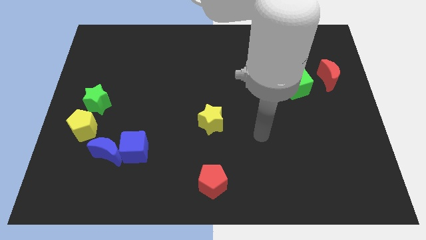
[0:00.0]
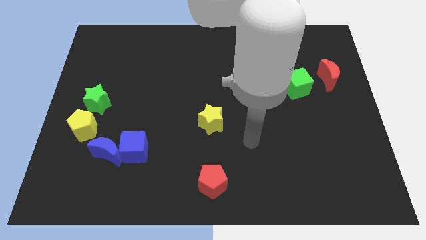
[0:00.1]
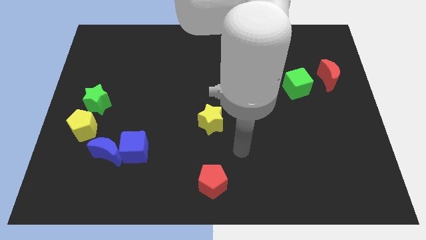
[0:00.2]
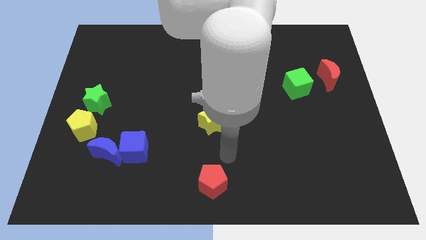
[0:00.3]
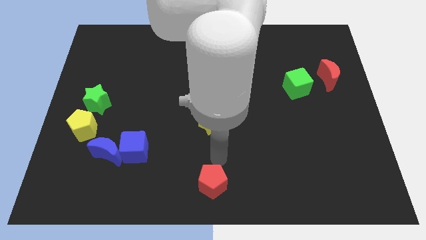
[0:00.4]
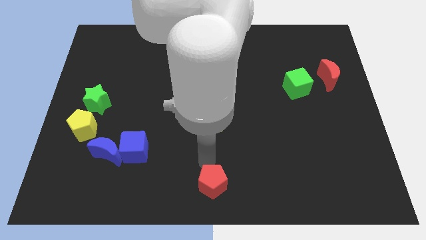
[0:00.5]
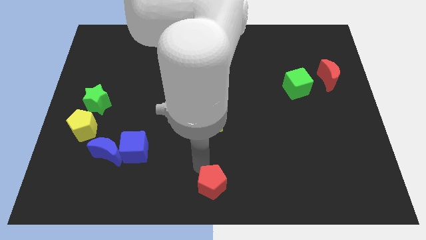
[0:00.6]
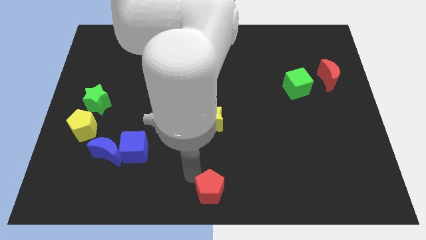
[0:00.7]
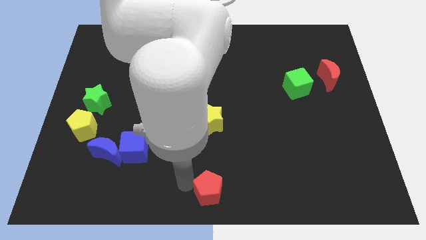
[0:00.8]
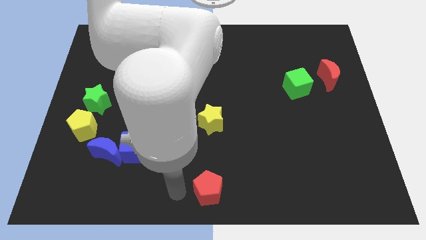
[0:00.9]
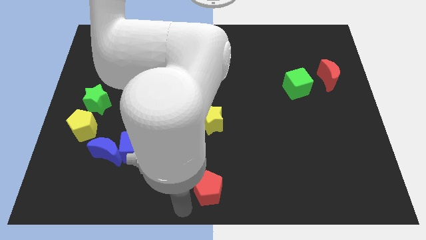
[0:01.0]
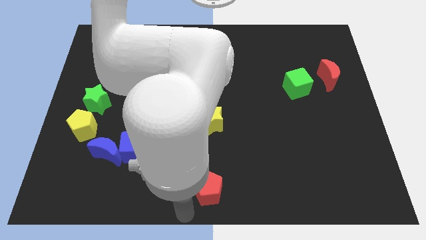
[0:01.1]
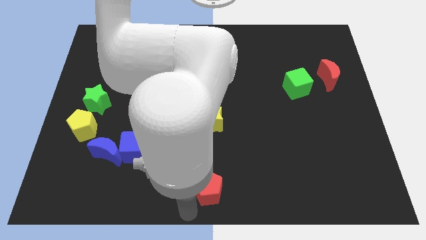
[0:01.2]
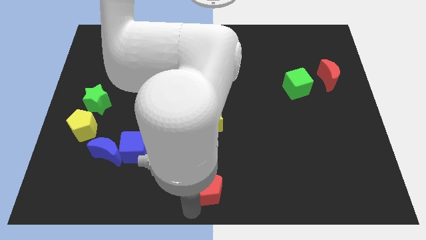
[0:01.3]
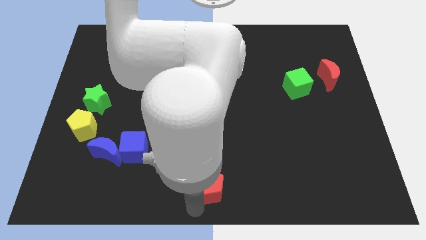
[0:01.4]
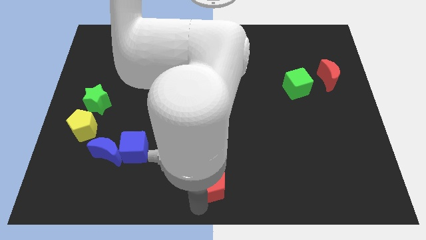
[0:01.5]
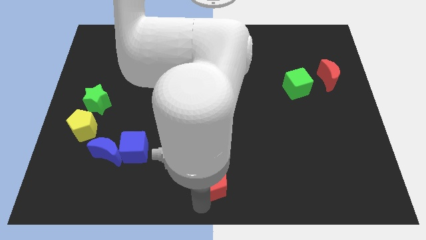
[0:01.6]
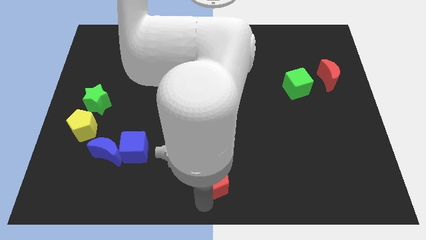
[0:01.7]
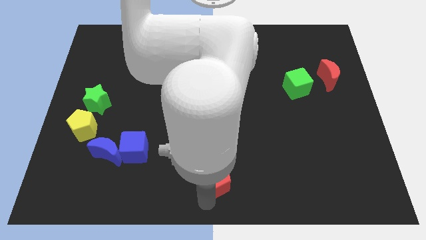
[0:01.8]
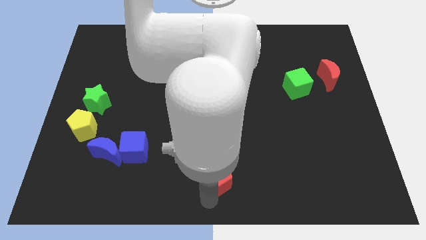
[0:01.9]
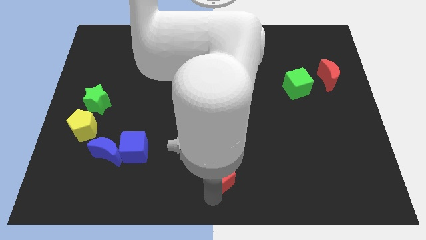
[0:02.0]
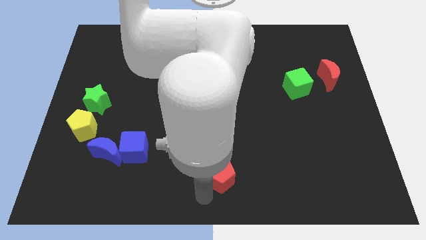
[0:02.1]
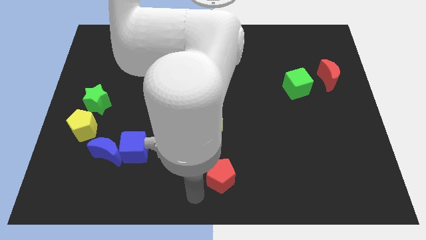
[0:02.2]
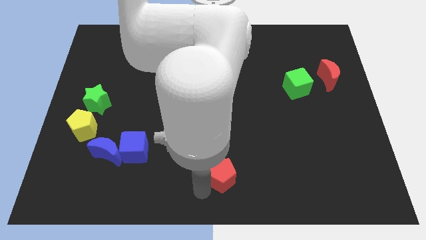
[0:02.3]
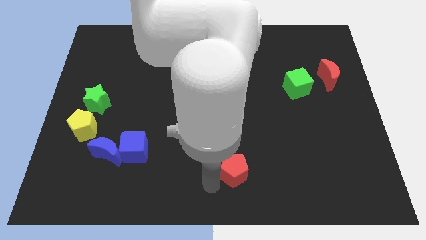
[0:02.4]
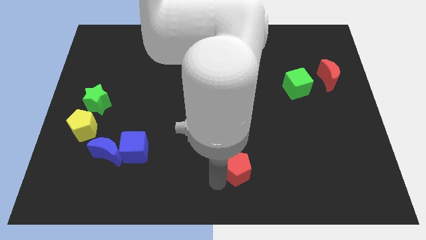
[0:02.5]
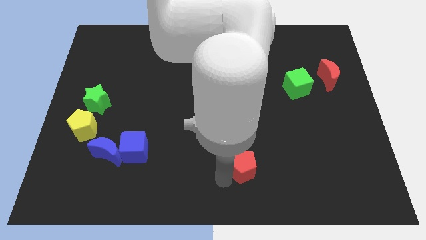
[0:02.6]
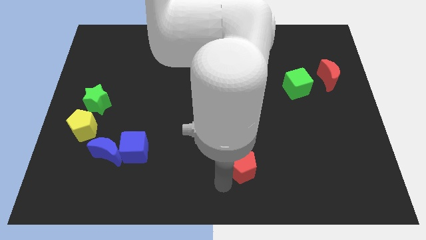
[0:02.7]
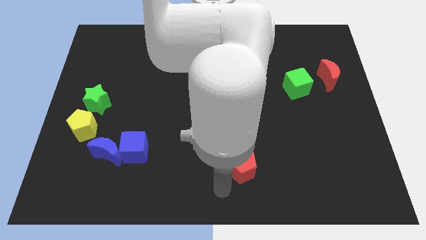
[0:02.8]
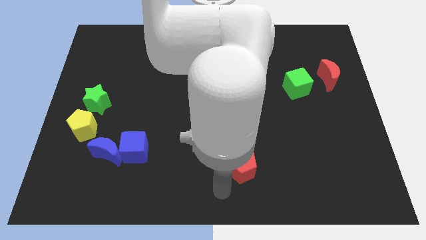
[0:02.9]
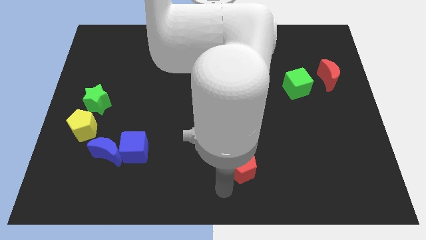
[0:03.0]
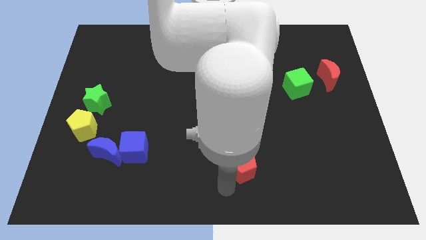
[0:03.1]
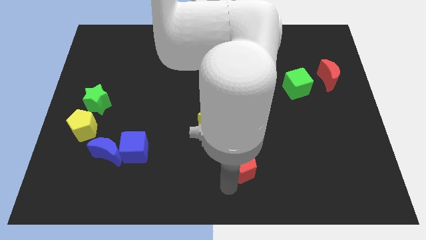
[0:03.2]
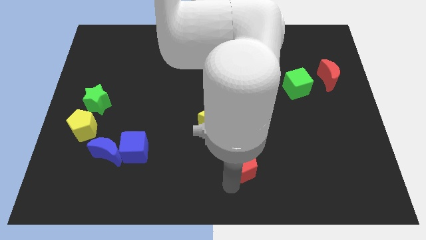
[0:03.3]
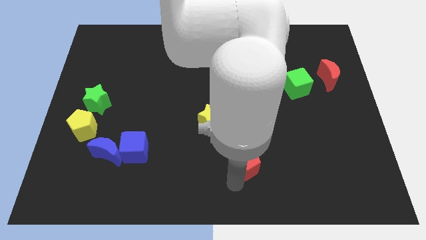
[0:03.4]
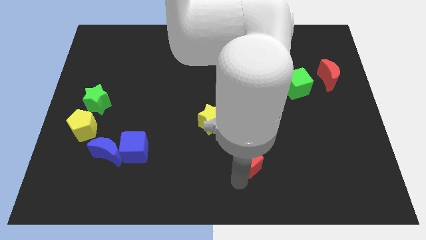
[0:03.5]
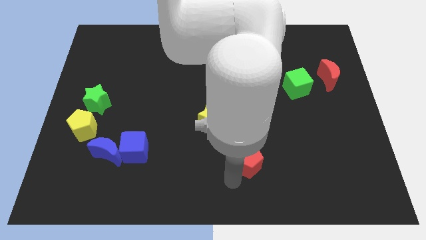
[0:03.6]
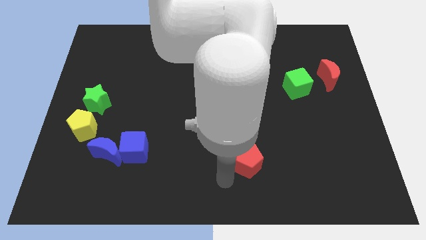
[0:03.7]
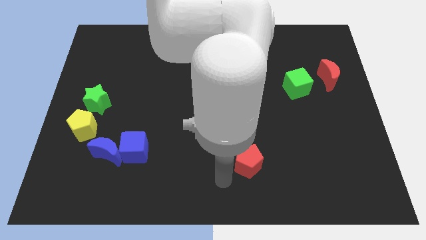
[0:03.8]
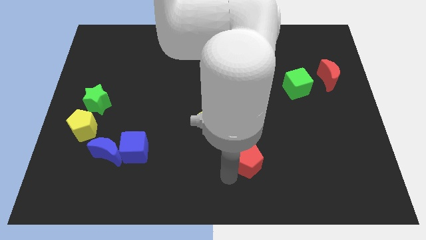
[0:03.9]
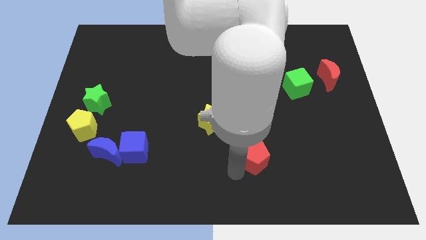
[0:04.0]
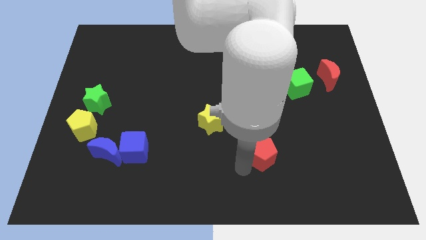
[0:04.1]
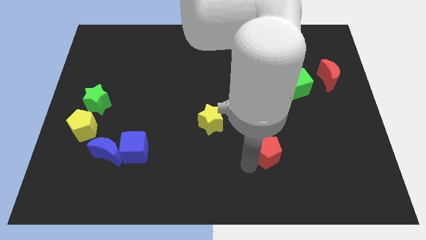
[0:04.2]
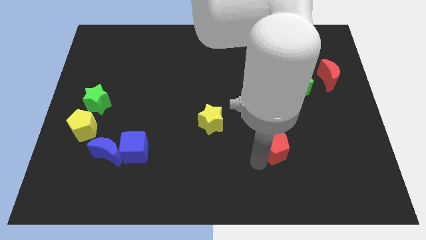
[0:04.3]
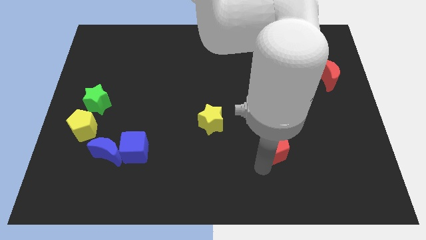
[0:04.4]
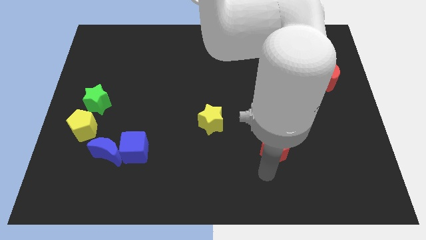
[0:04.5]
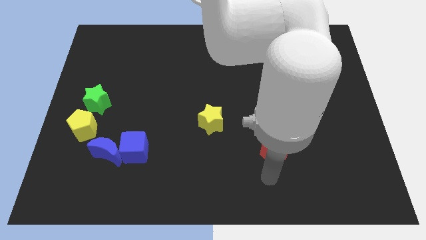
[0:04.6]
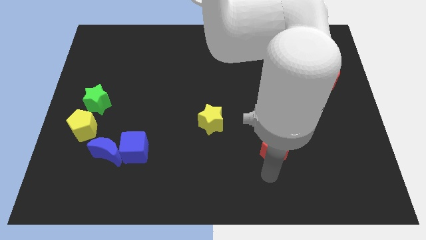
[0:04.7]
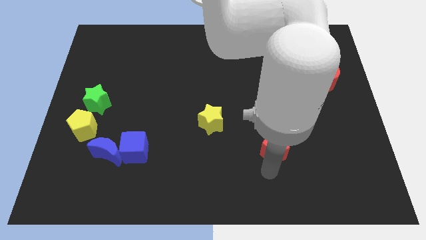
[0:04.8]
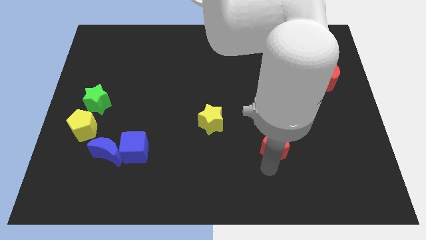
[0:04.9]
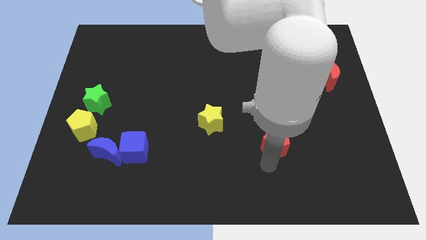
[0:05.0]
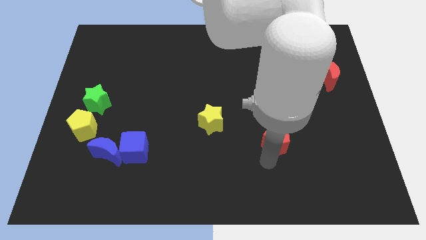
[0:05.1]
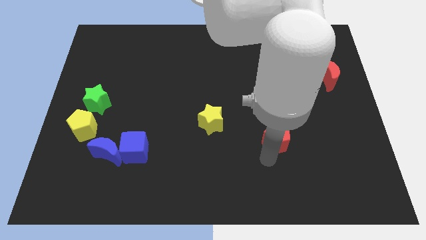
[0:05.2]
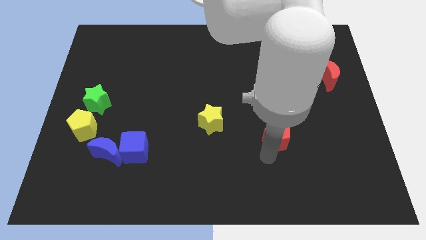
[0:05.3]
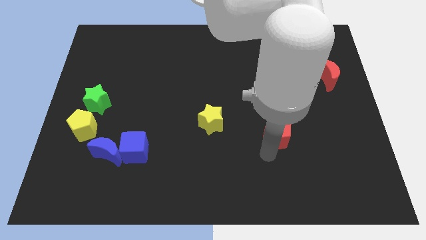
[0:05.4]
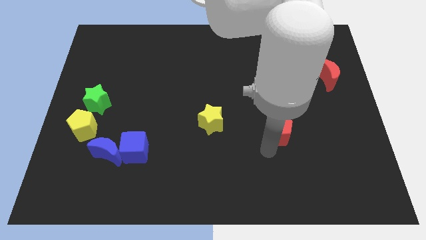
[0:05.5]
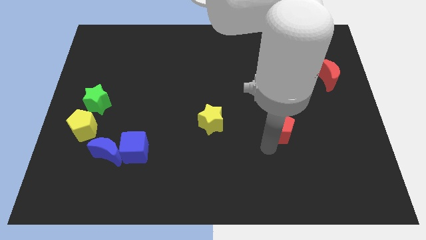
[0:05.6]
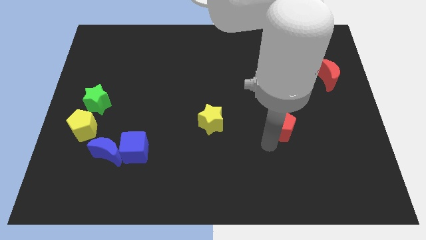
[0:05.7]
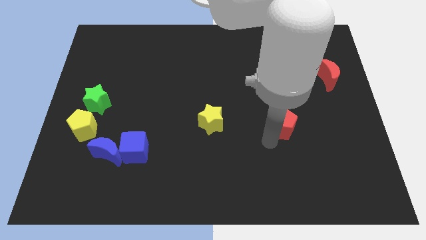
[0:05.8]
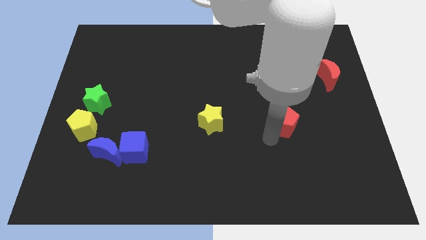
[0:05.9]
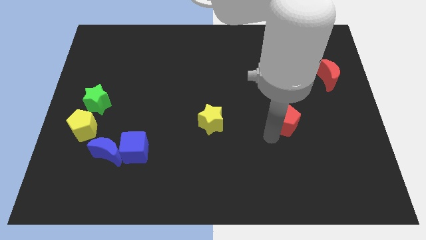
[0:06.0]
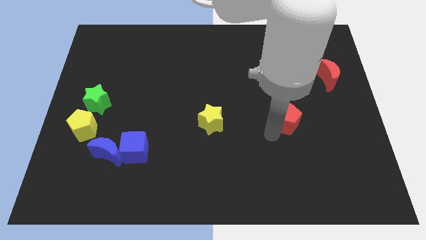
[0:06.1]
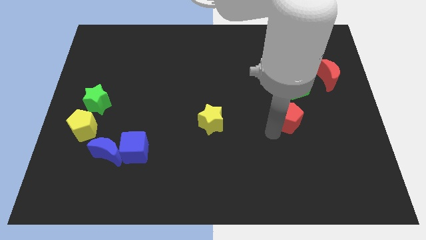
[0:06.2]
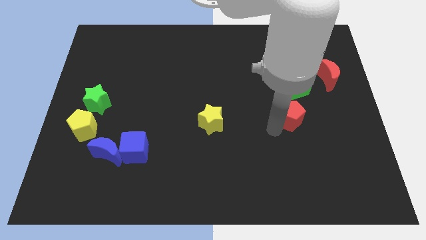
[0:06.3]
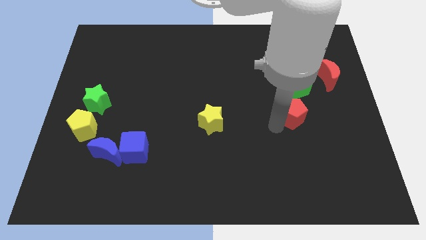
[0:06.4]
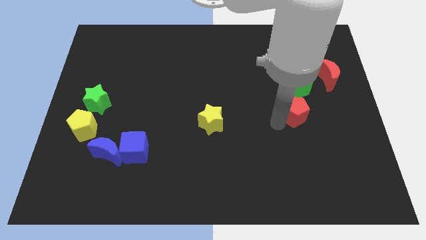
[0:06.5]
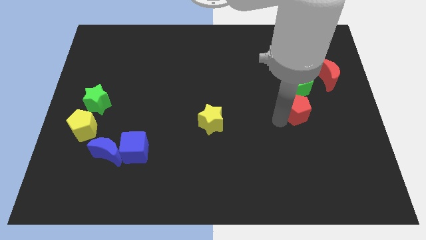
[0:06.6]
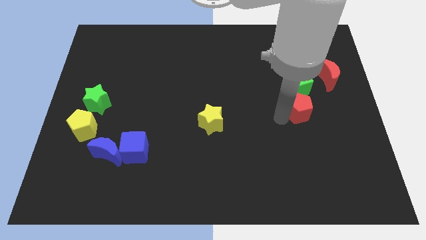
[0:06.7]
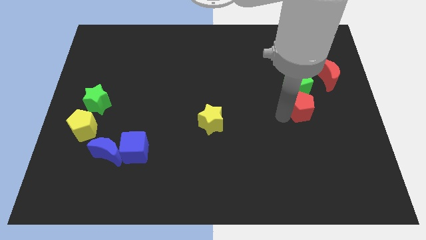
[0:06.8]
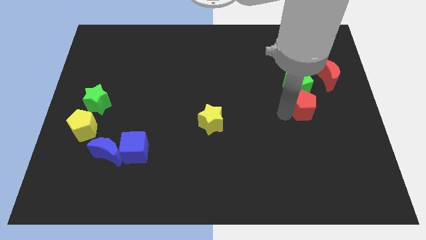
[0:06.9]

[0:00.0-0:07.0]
slide the red pentagon to the bottom right of the green cube
